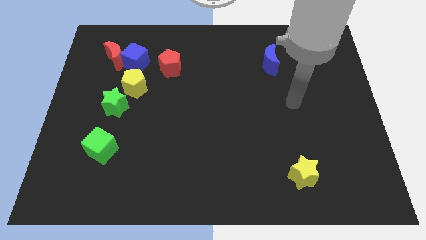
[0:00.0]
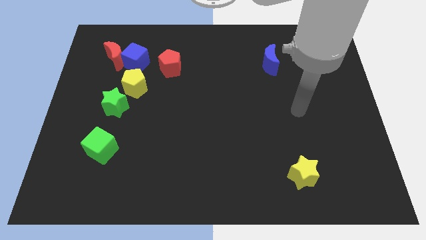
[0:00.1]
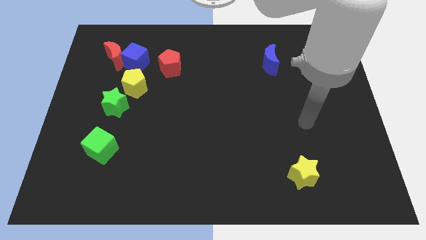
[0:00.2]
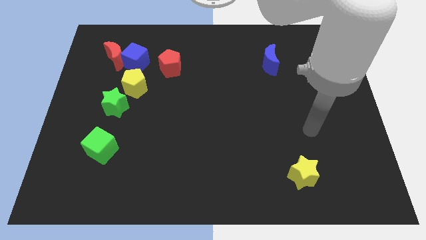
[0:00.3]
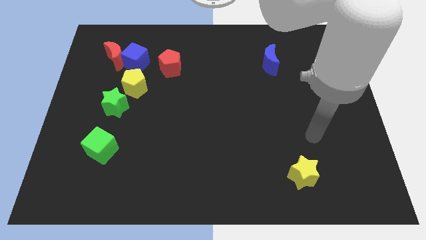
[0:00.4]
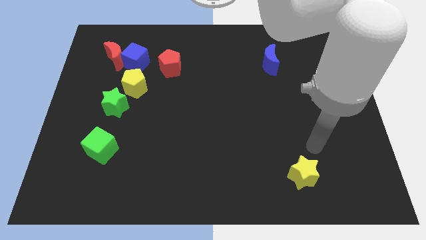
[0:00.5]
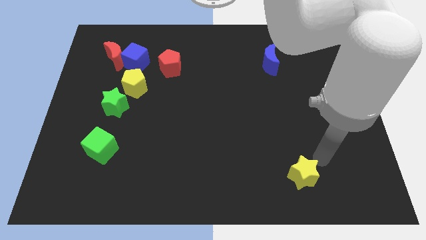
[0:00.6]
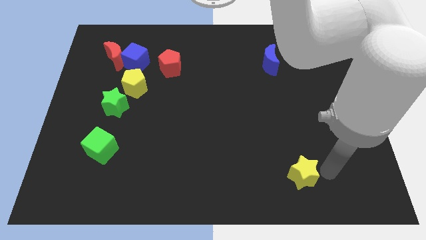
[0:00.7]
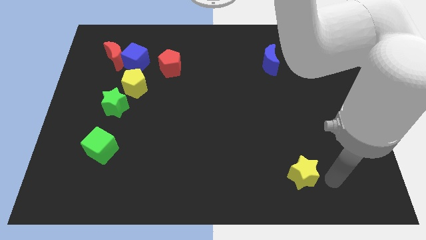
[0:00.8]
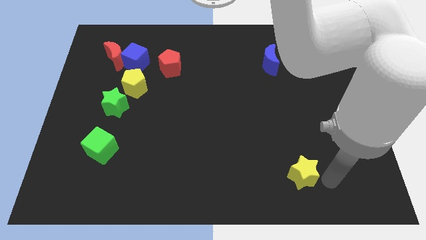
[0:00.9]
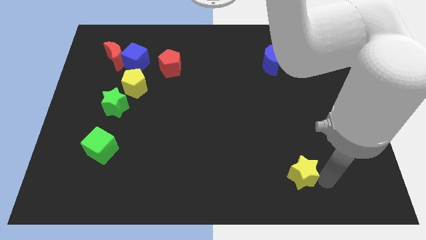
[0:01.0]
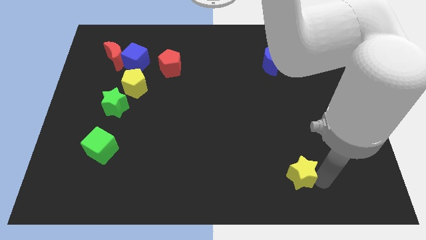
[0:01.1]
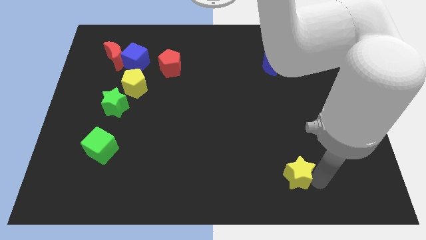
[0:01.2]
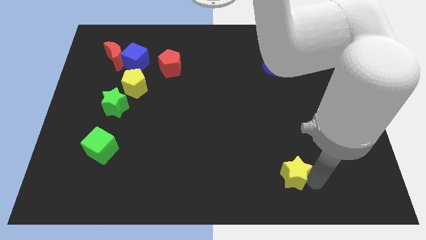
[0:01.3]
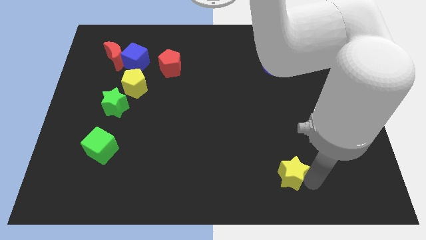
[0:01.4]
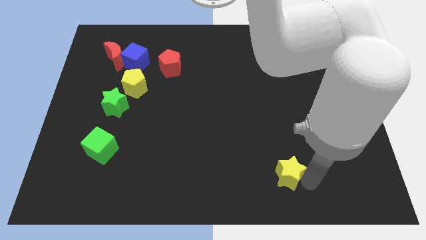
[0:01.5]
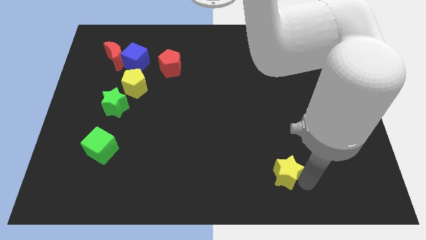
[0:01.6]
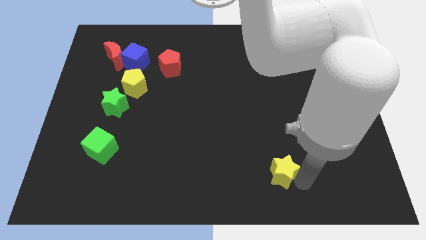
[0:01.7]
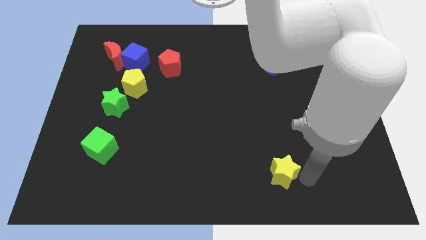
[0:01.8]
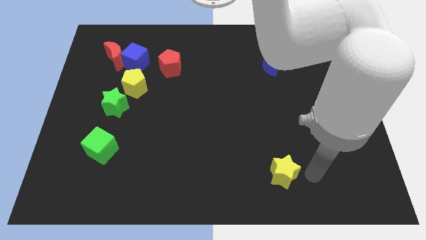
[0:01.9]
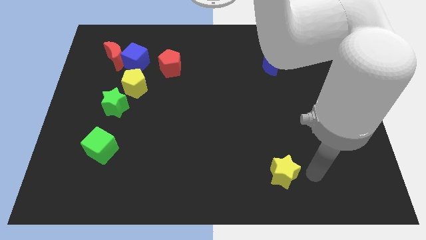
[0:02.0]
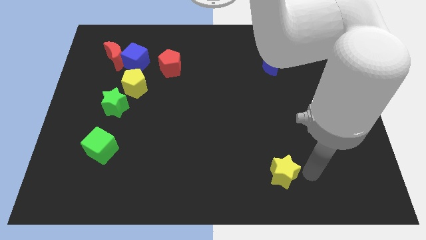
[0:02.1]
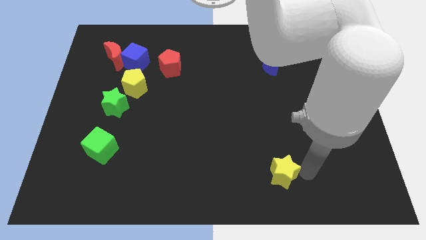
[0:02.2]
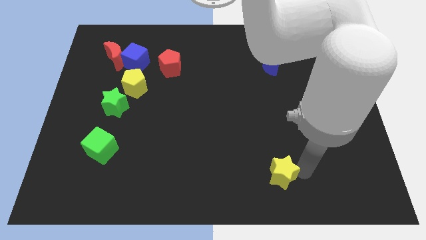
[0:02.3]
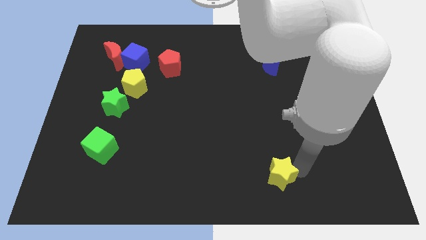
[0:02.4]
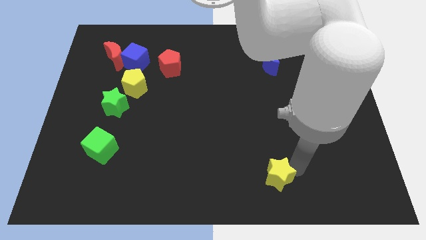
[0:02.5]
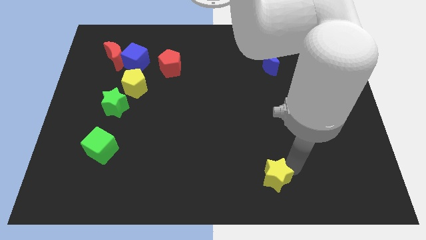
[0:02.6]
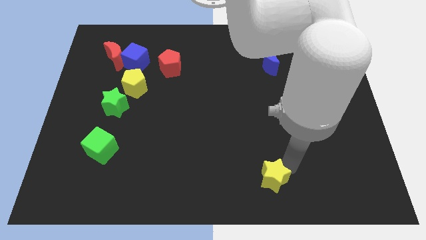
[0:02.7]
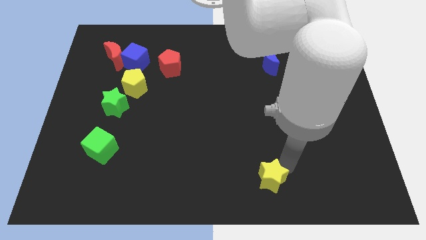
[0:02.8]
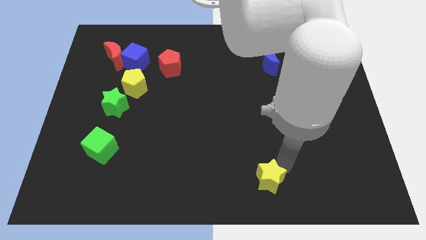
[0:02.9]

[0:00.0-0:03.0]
slightly move the yellow star left

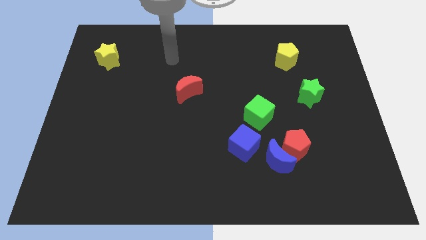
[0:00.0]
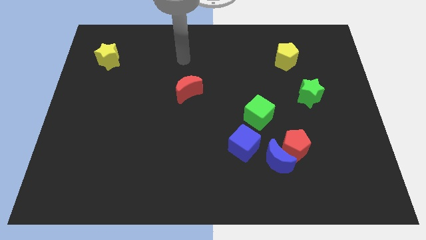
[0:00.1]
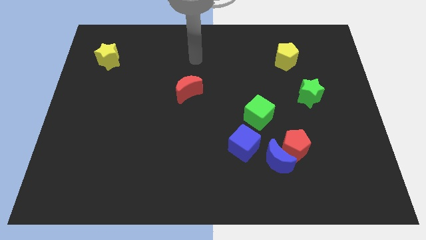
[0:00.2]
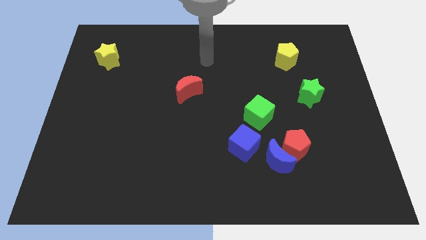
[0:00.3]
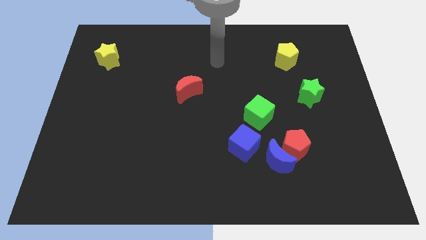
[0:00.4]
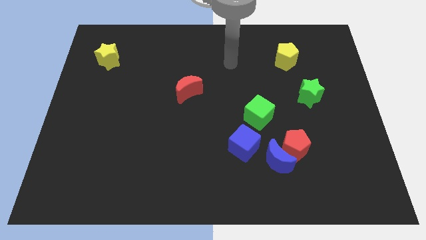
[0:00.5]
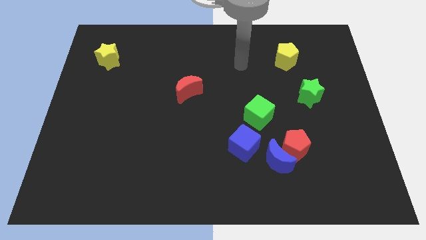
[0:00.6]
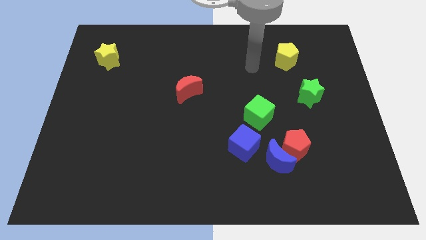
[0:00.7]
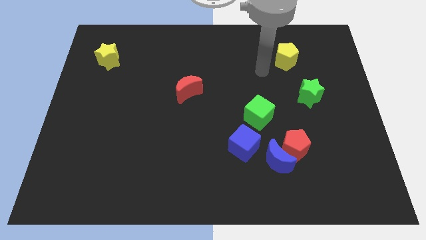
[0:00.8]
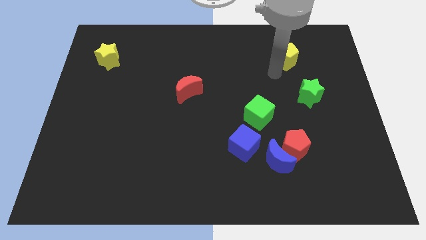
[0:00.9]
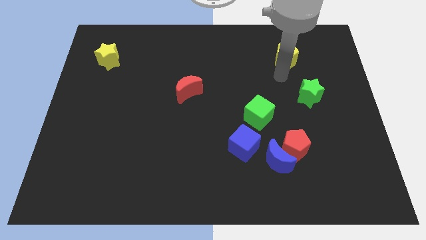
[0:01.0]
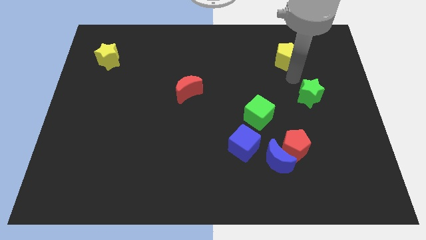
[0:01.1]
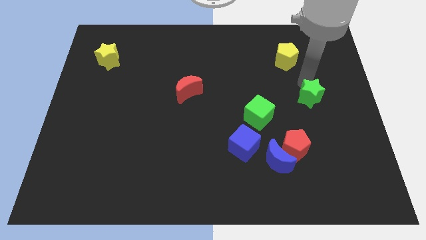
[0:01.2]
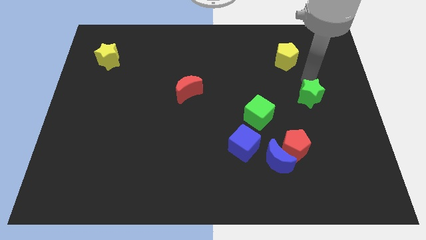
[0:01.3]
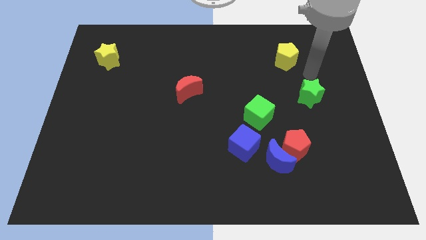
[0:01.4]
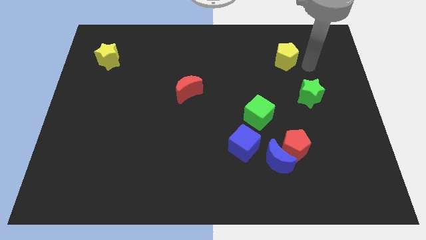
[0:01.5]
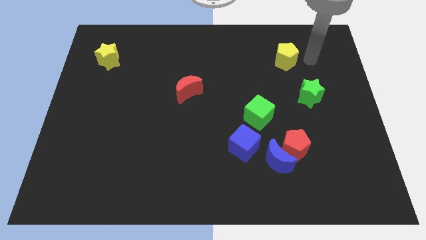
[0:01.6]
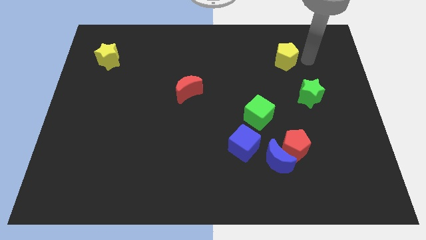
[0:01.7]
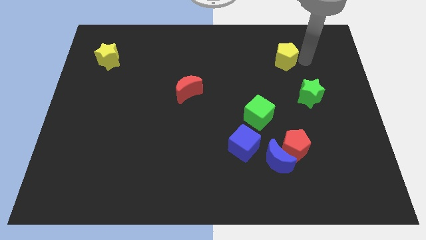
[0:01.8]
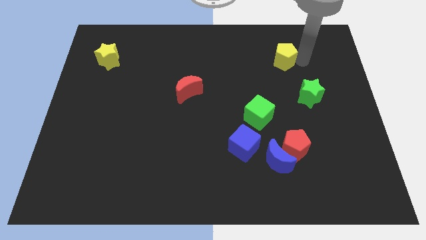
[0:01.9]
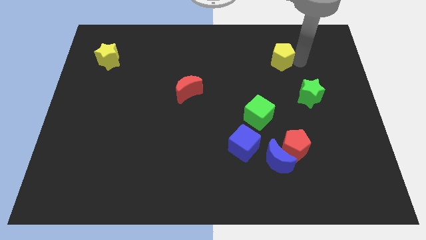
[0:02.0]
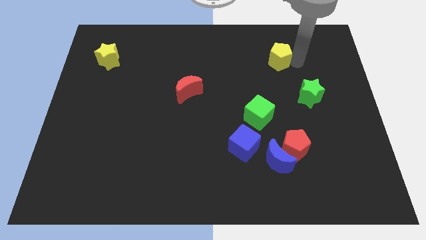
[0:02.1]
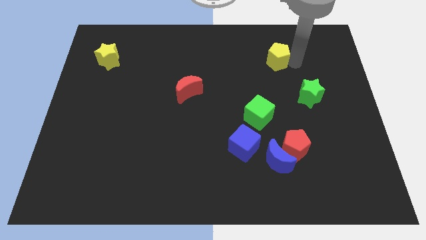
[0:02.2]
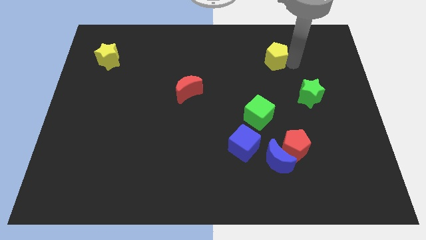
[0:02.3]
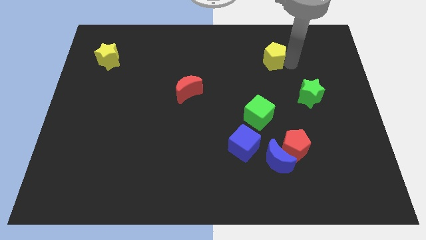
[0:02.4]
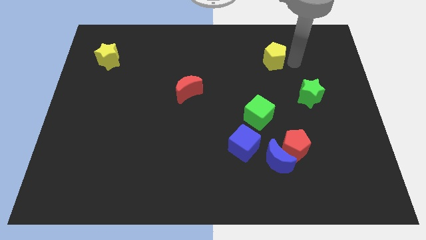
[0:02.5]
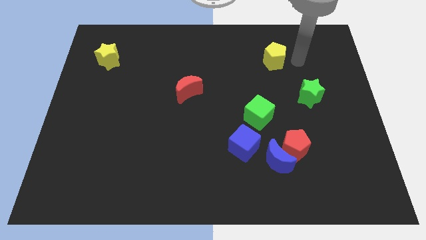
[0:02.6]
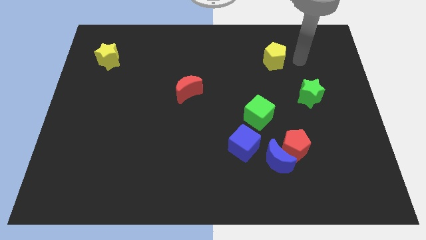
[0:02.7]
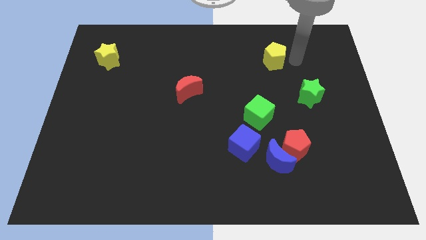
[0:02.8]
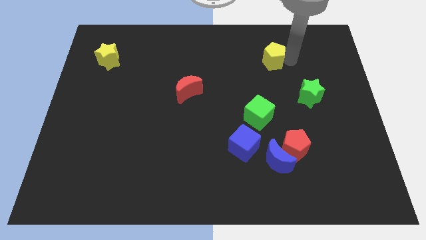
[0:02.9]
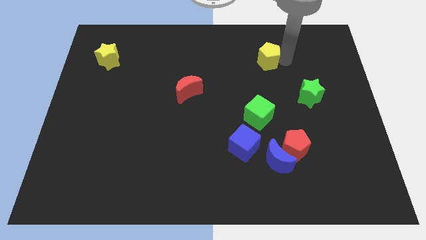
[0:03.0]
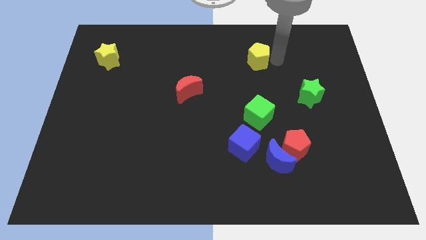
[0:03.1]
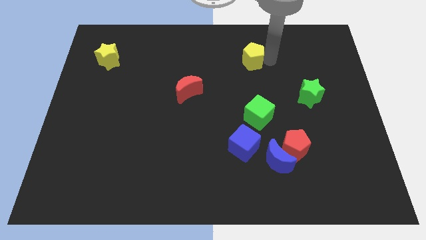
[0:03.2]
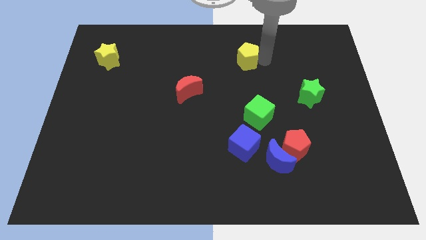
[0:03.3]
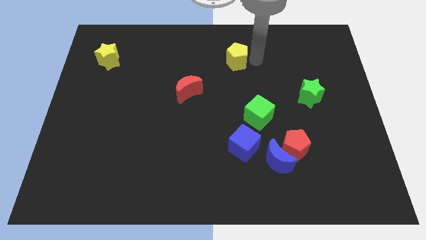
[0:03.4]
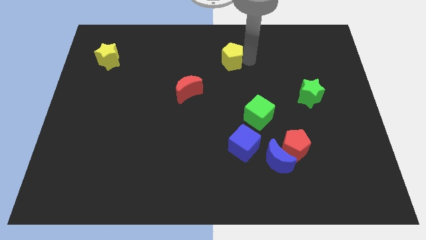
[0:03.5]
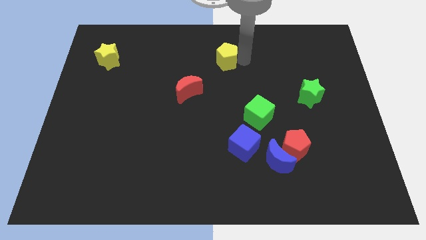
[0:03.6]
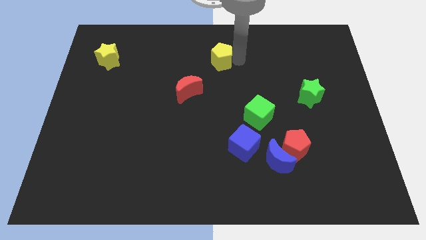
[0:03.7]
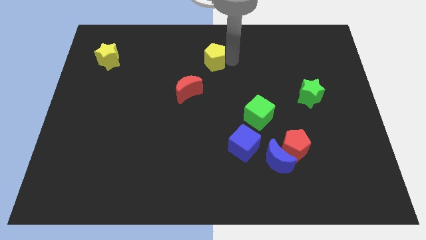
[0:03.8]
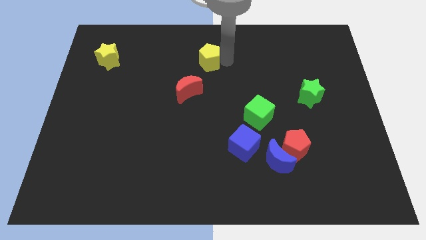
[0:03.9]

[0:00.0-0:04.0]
push the yellow pentagon to the left

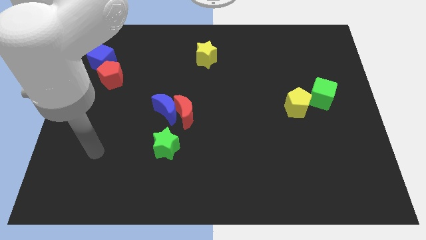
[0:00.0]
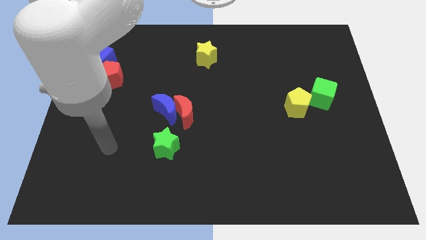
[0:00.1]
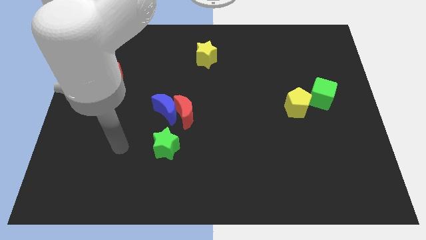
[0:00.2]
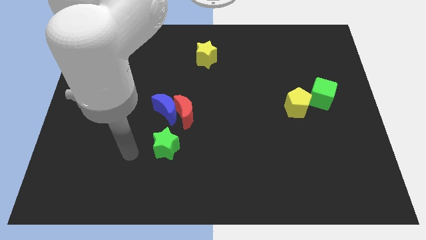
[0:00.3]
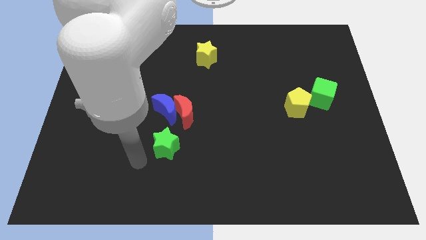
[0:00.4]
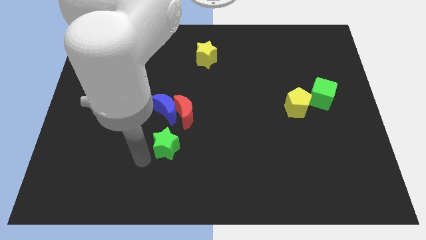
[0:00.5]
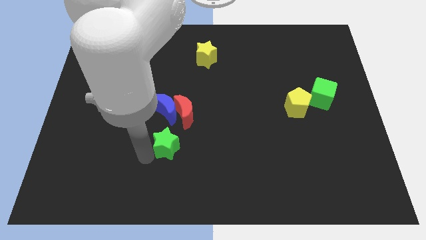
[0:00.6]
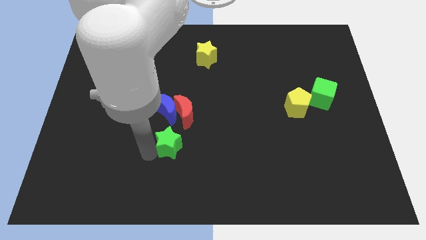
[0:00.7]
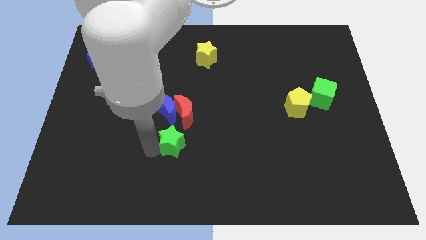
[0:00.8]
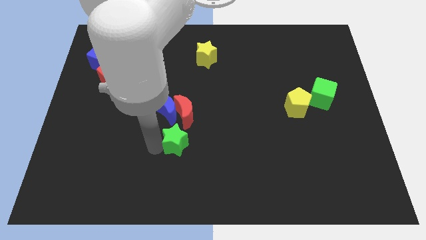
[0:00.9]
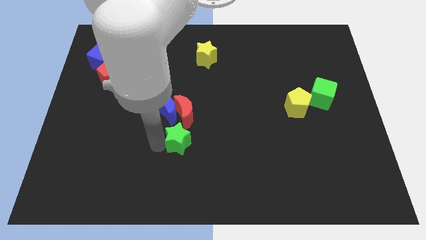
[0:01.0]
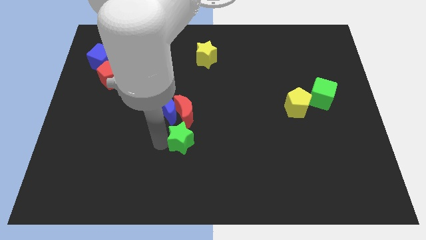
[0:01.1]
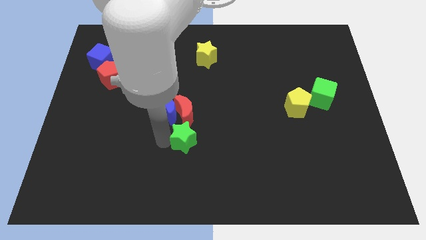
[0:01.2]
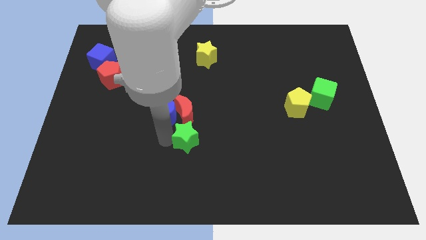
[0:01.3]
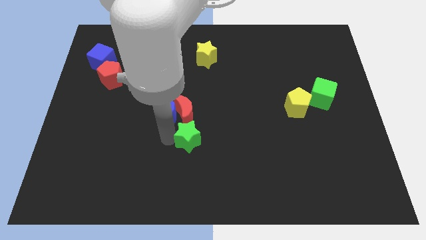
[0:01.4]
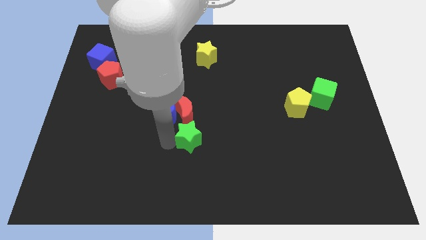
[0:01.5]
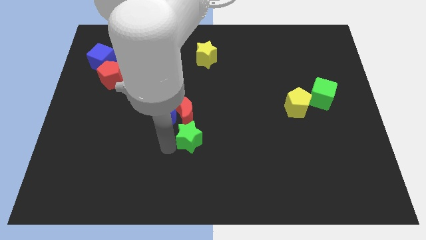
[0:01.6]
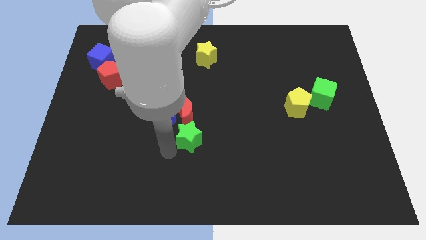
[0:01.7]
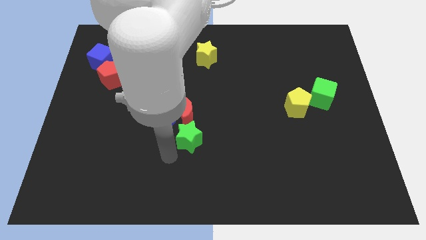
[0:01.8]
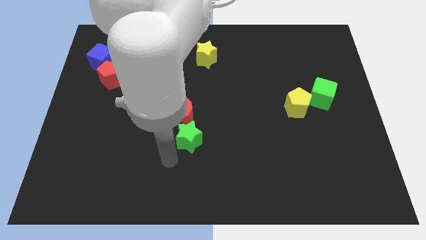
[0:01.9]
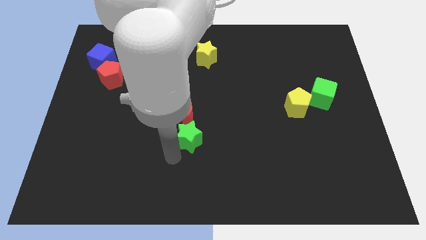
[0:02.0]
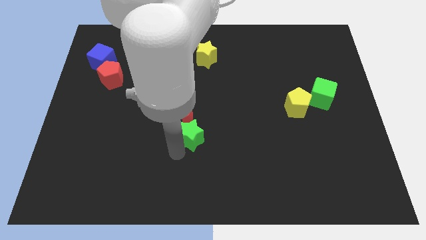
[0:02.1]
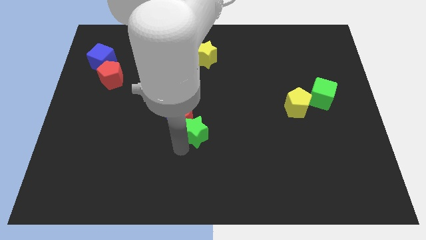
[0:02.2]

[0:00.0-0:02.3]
slide the green star somewhat up and then to the right
